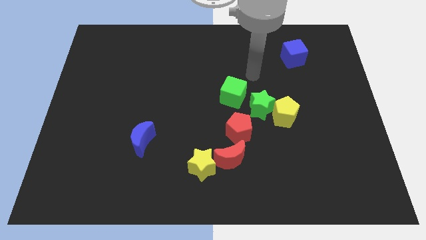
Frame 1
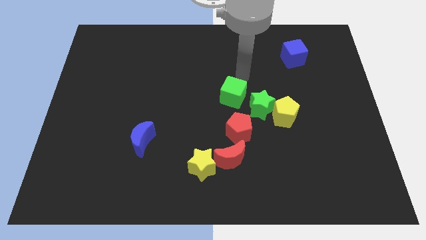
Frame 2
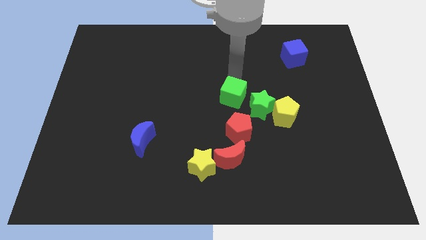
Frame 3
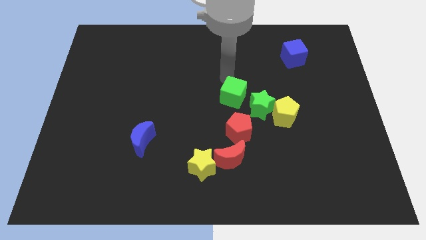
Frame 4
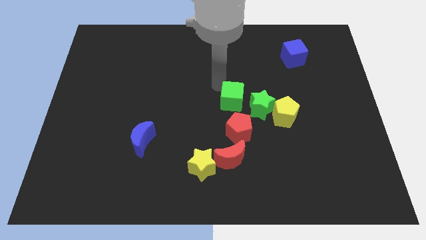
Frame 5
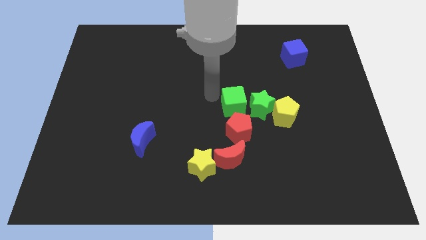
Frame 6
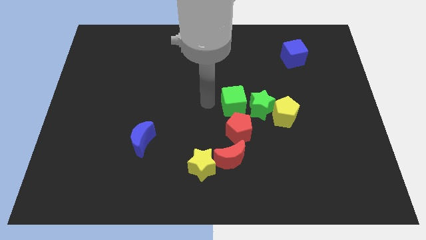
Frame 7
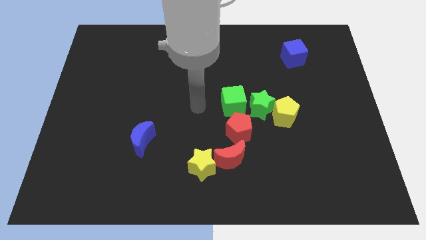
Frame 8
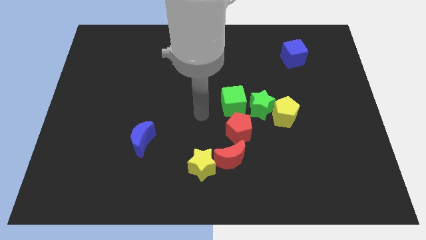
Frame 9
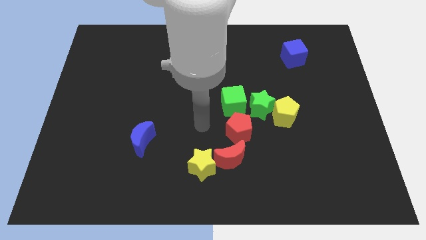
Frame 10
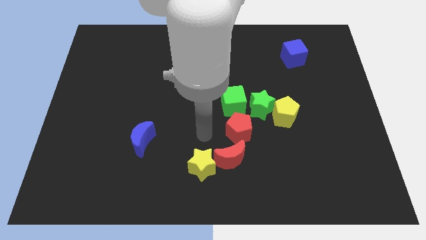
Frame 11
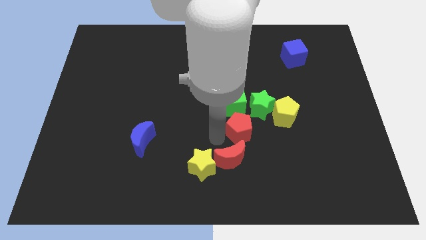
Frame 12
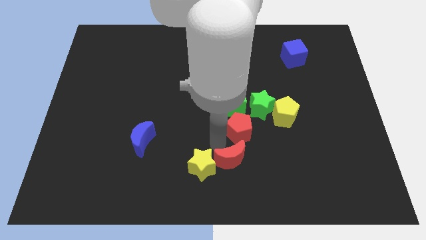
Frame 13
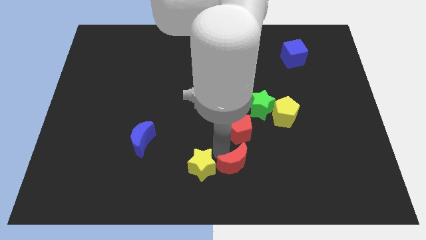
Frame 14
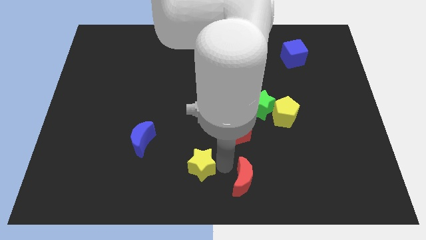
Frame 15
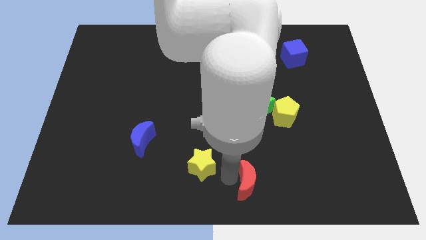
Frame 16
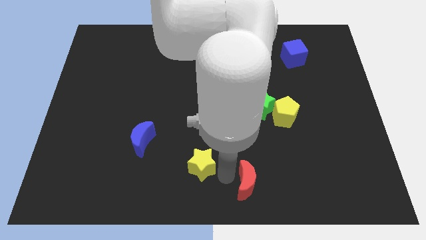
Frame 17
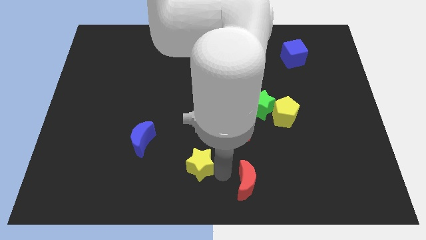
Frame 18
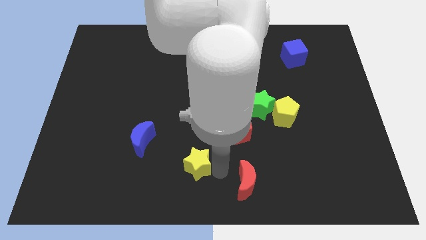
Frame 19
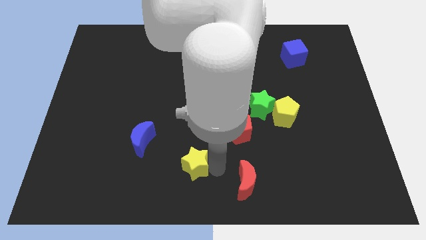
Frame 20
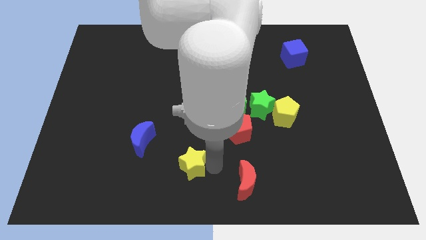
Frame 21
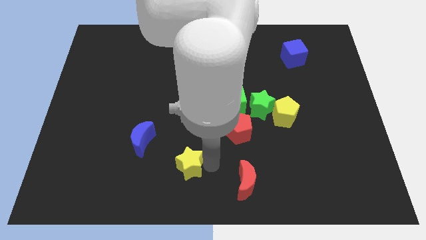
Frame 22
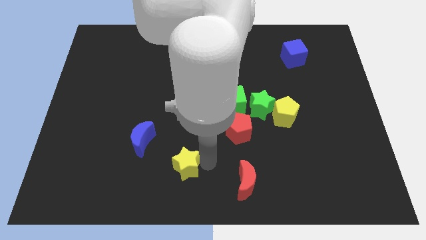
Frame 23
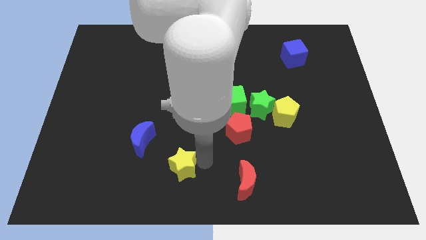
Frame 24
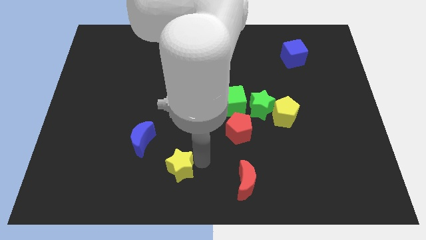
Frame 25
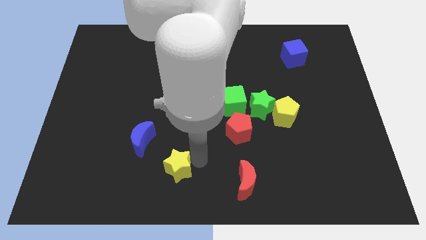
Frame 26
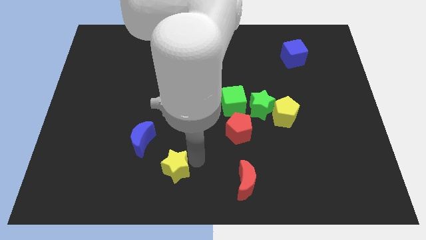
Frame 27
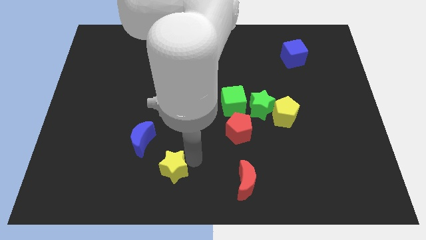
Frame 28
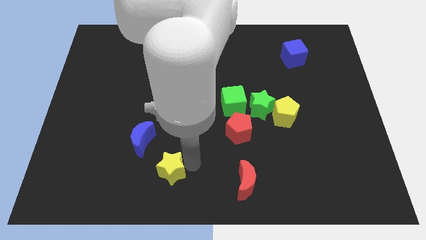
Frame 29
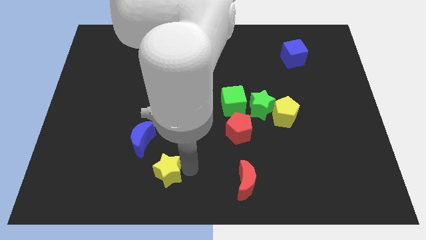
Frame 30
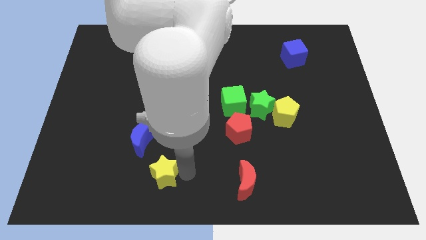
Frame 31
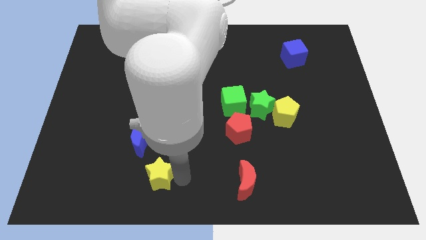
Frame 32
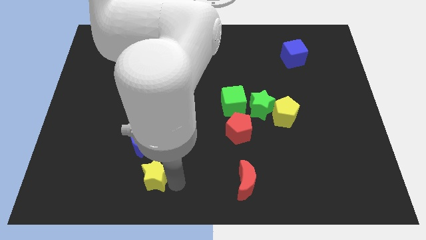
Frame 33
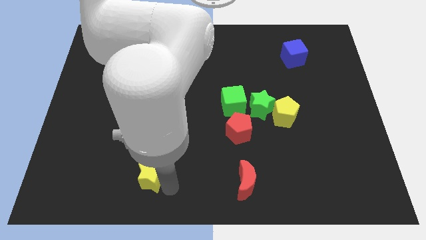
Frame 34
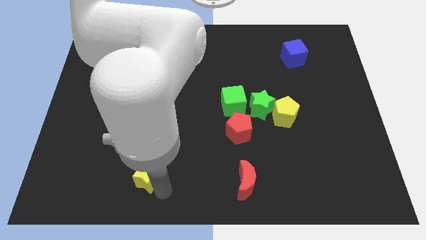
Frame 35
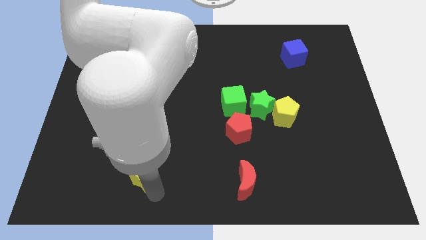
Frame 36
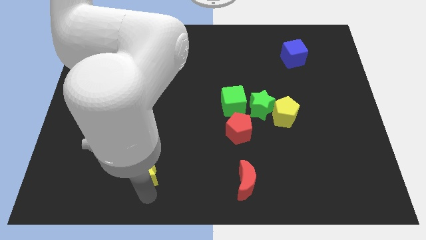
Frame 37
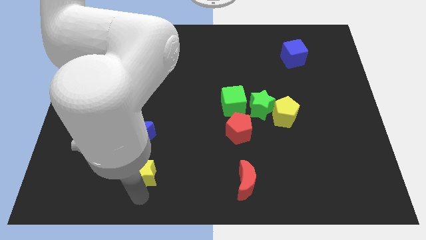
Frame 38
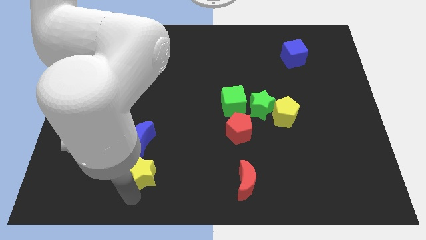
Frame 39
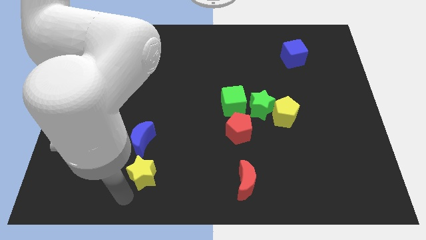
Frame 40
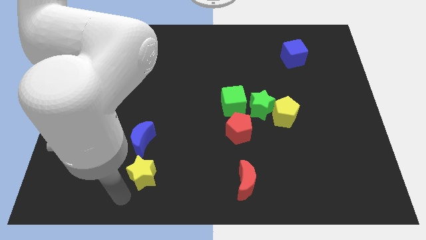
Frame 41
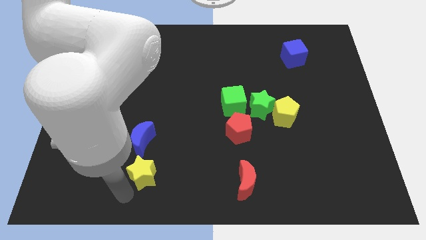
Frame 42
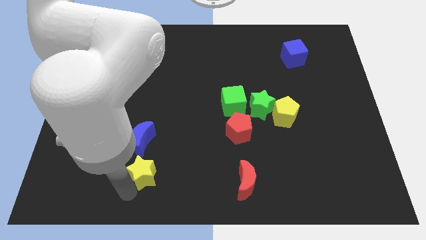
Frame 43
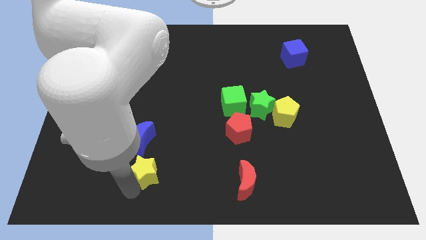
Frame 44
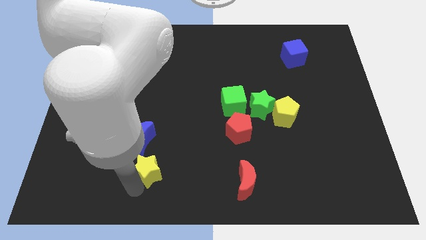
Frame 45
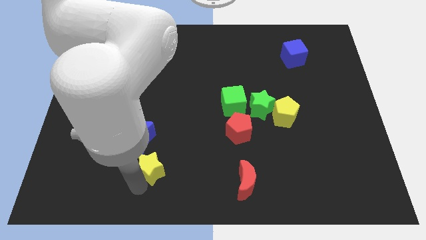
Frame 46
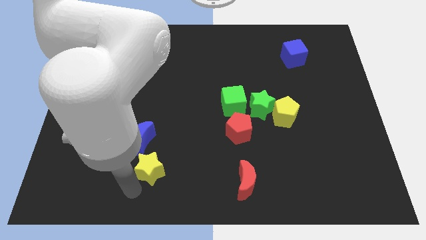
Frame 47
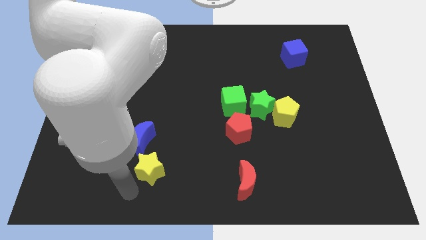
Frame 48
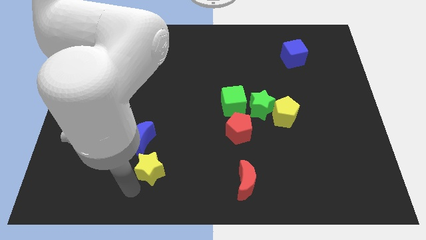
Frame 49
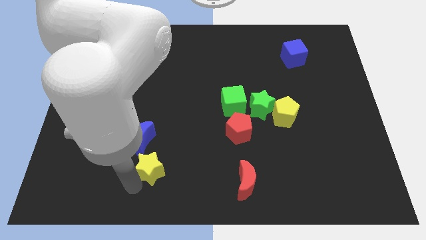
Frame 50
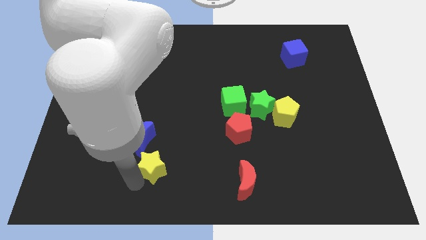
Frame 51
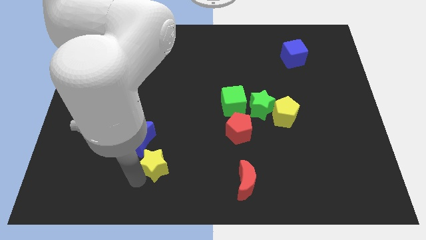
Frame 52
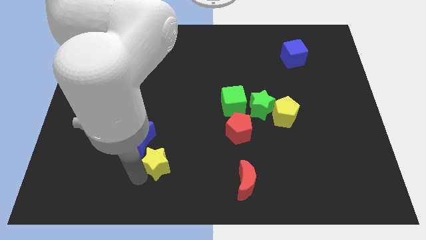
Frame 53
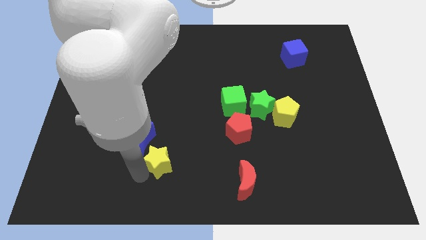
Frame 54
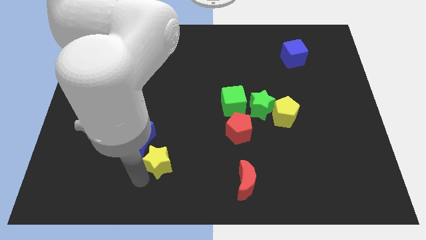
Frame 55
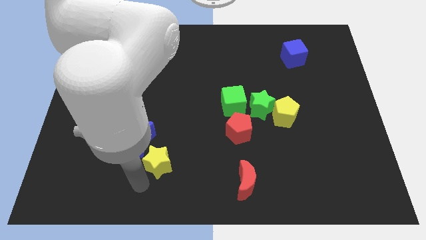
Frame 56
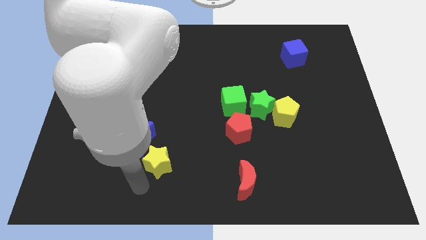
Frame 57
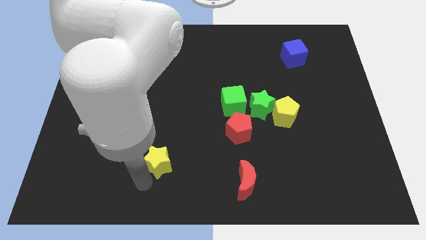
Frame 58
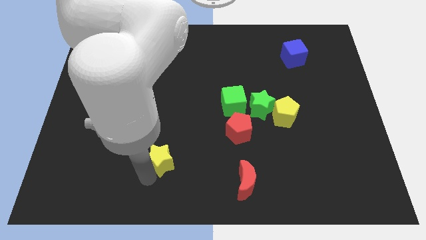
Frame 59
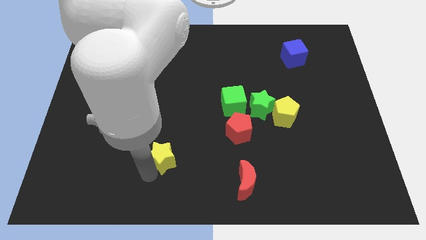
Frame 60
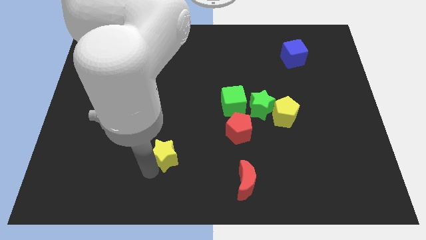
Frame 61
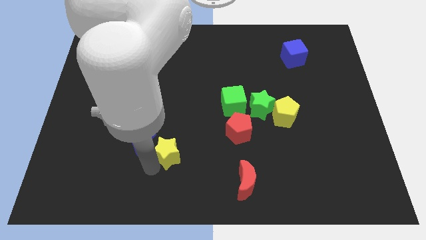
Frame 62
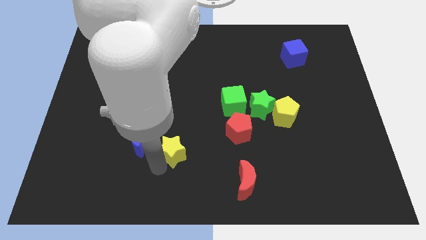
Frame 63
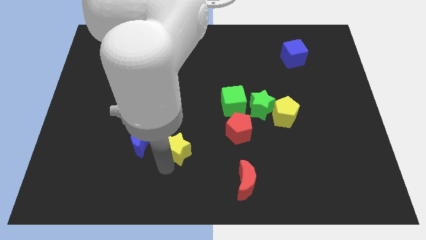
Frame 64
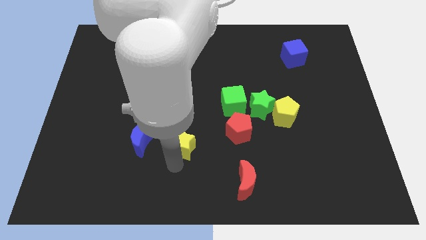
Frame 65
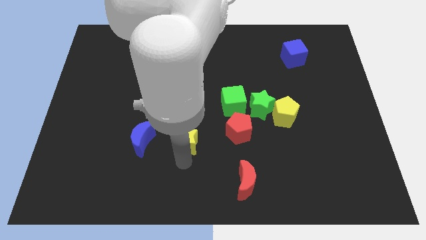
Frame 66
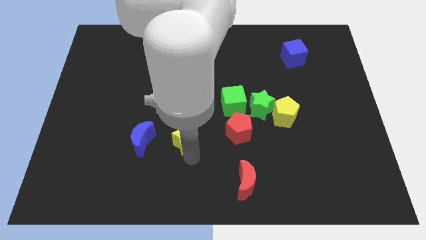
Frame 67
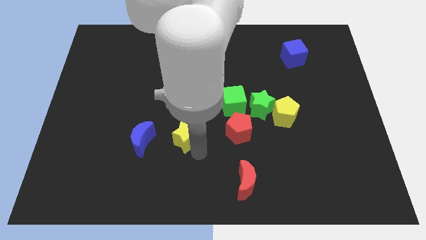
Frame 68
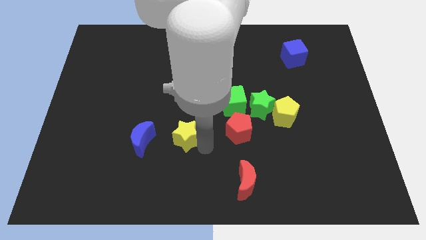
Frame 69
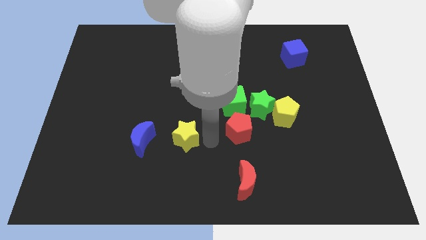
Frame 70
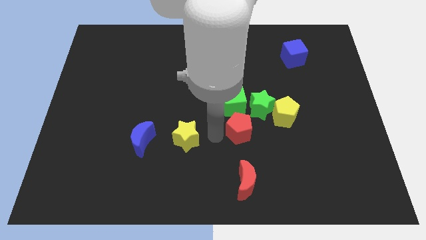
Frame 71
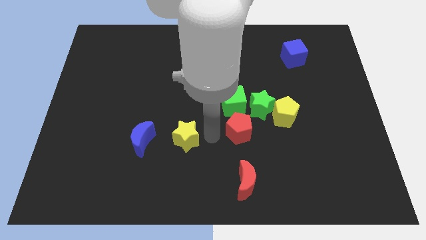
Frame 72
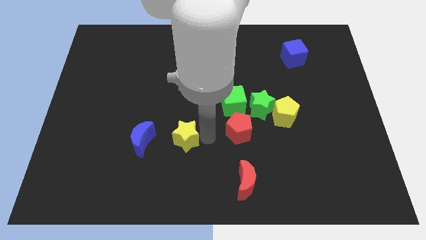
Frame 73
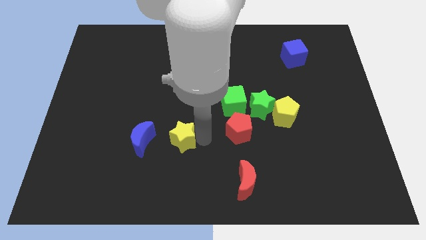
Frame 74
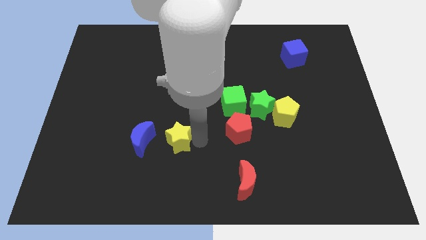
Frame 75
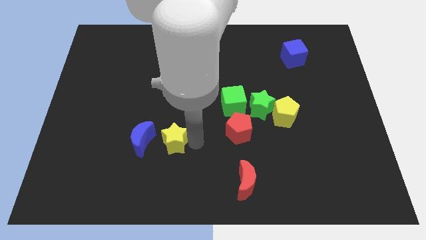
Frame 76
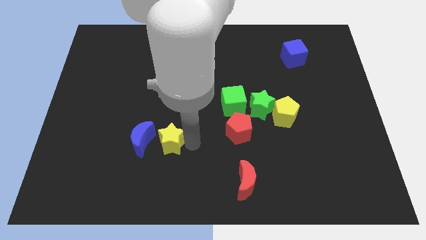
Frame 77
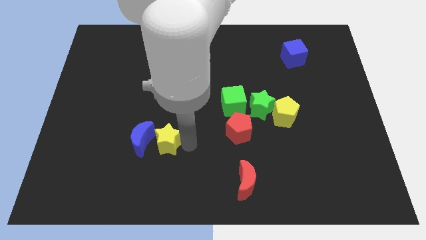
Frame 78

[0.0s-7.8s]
put the yellow star next to the blue moon
